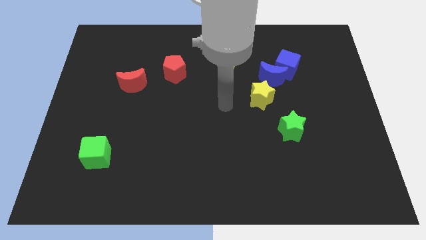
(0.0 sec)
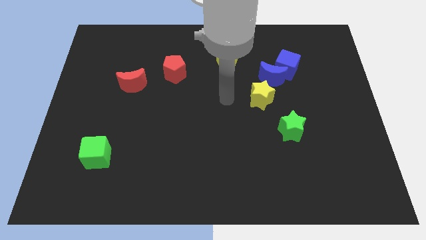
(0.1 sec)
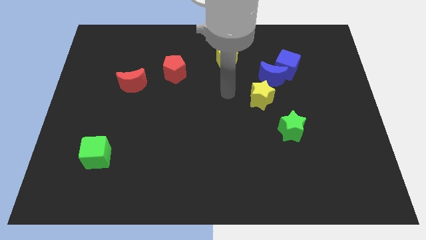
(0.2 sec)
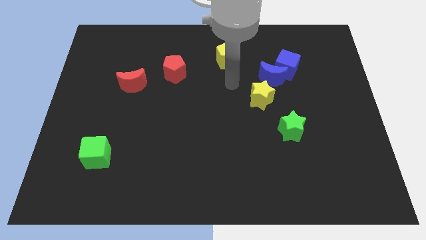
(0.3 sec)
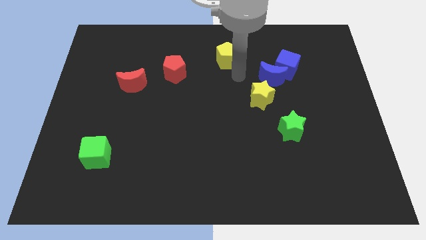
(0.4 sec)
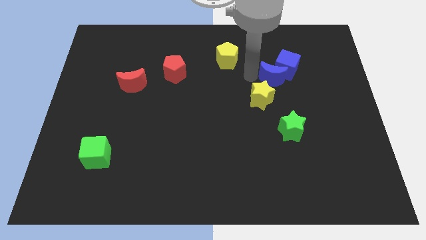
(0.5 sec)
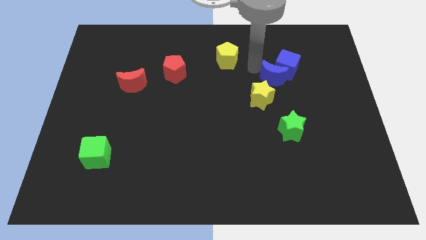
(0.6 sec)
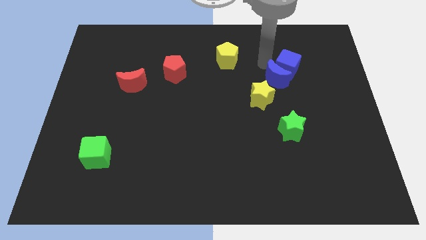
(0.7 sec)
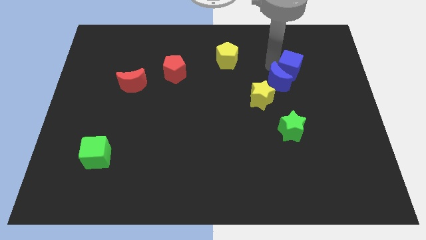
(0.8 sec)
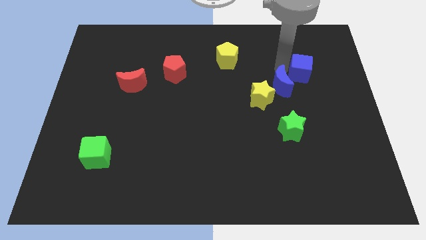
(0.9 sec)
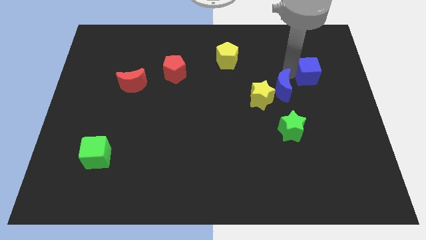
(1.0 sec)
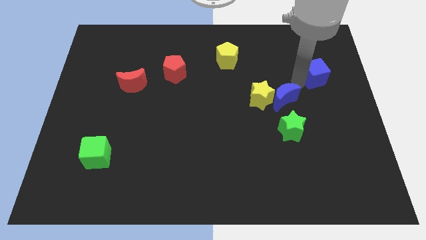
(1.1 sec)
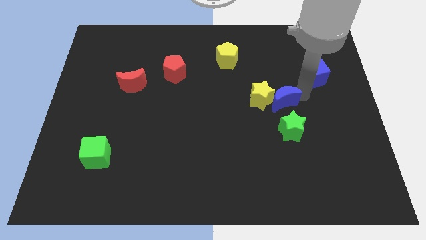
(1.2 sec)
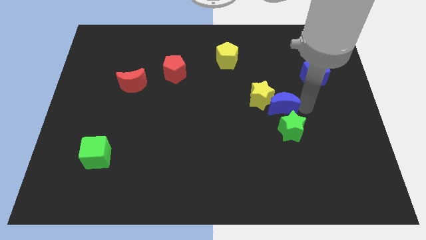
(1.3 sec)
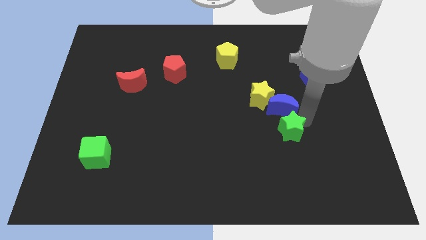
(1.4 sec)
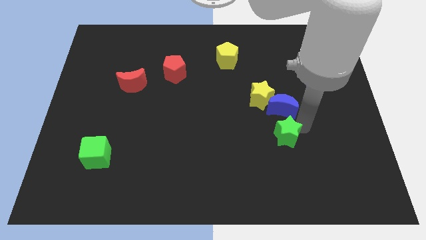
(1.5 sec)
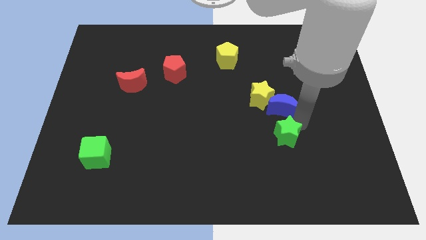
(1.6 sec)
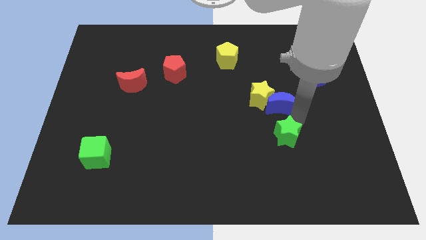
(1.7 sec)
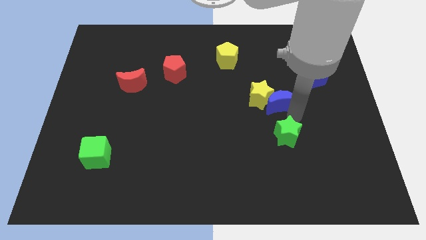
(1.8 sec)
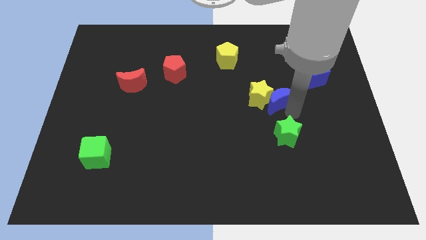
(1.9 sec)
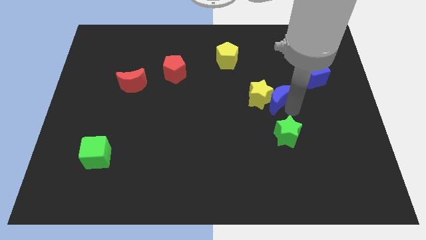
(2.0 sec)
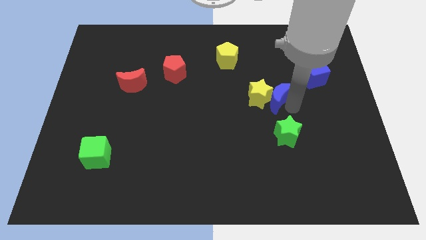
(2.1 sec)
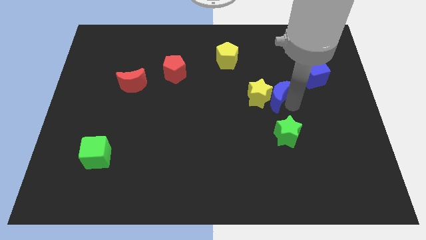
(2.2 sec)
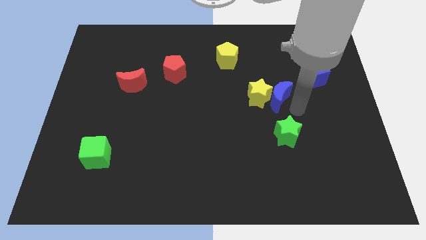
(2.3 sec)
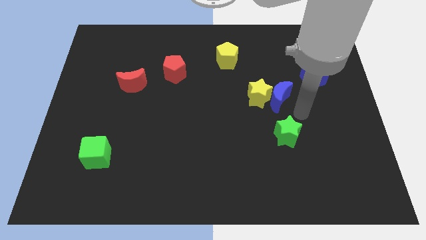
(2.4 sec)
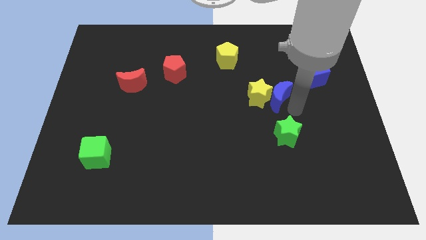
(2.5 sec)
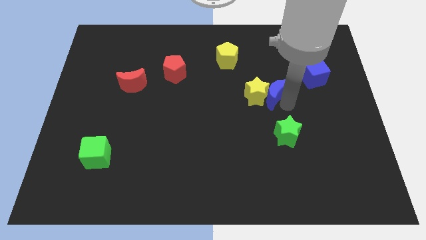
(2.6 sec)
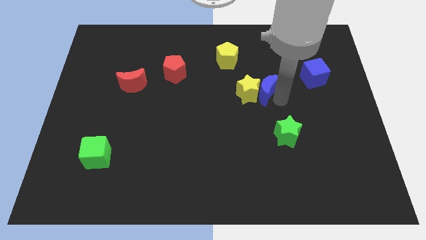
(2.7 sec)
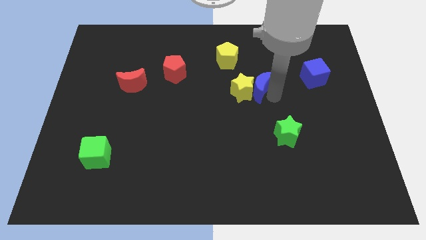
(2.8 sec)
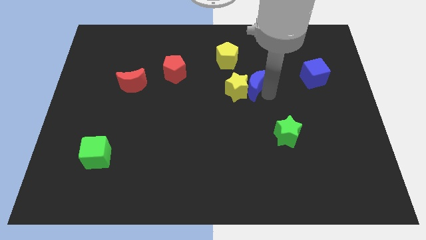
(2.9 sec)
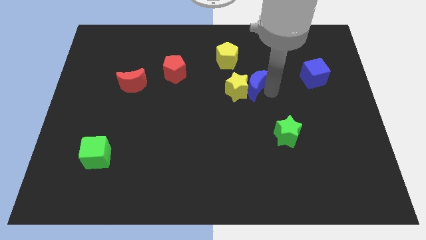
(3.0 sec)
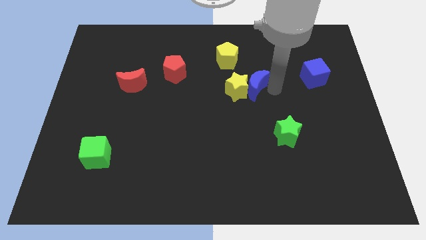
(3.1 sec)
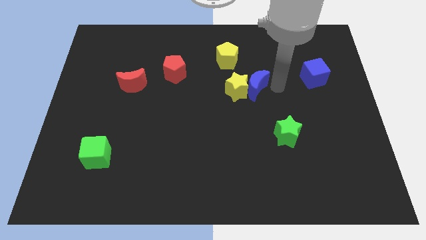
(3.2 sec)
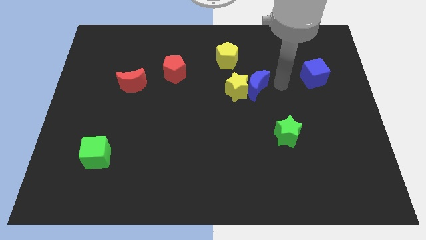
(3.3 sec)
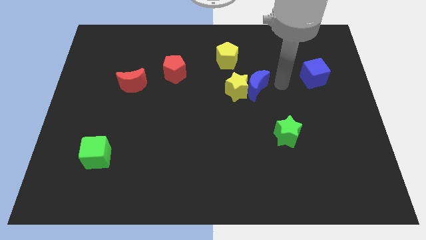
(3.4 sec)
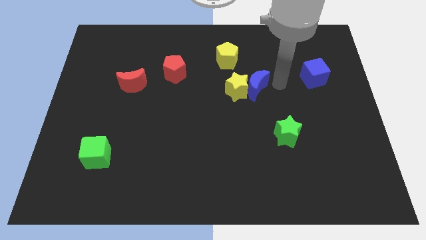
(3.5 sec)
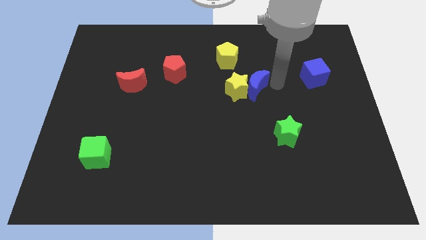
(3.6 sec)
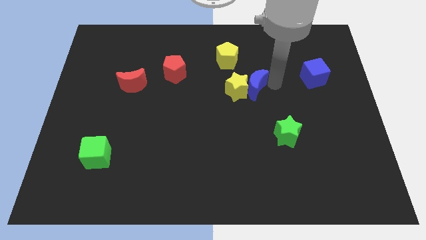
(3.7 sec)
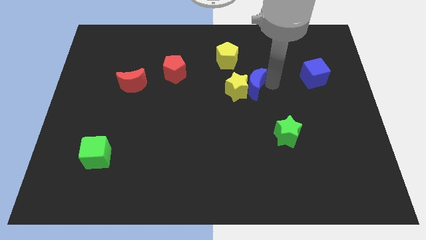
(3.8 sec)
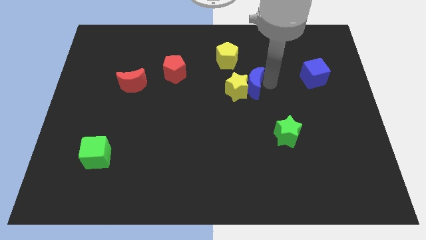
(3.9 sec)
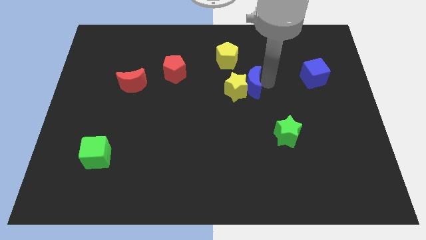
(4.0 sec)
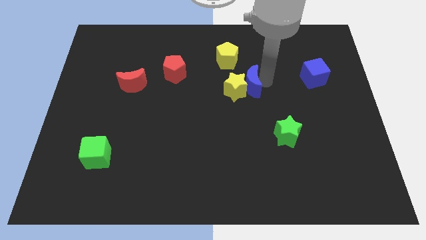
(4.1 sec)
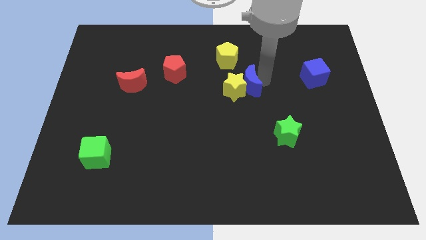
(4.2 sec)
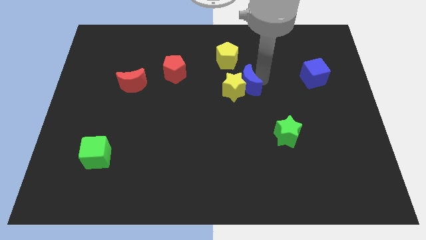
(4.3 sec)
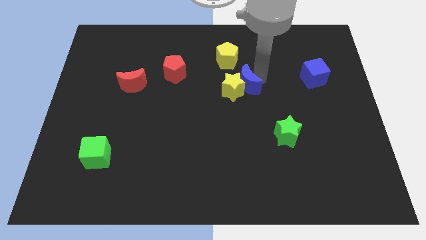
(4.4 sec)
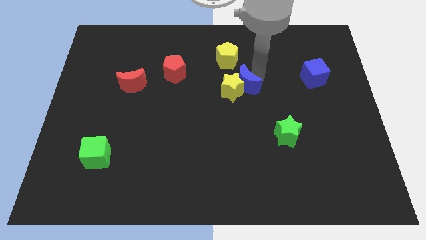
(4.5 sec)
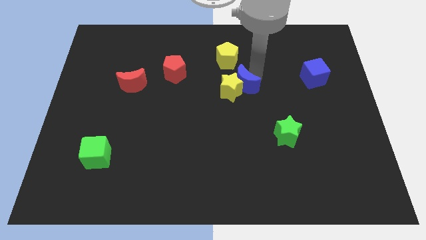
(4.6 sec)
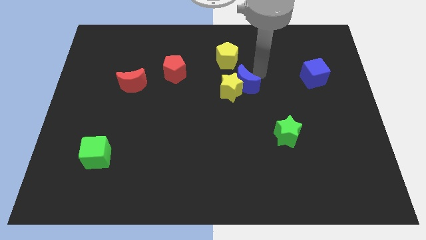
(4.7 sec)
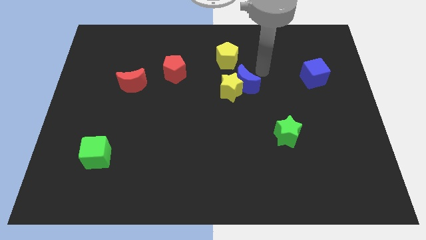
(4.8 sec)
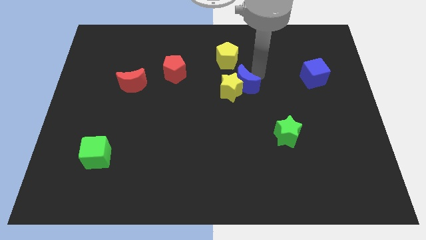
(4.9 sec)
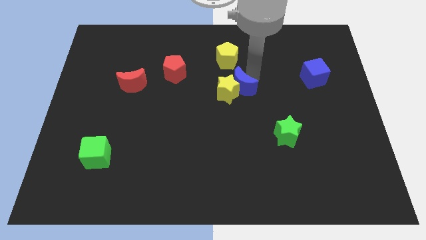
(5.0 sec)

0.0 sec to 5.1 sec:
slightly push the blue moon downwards and left

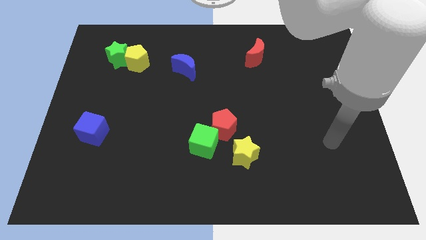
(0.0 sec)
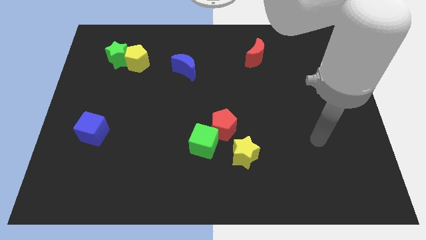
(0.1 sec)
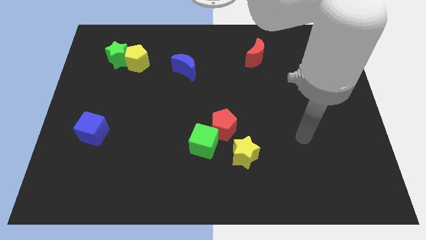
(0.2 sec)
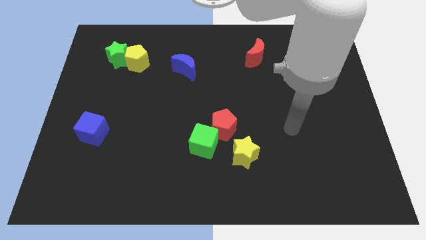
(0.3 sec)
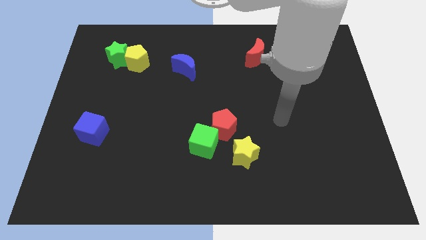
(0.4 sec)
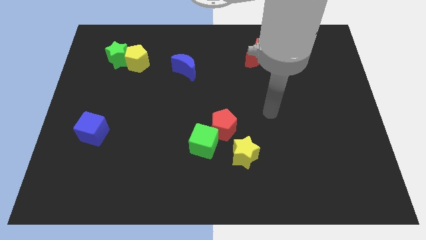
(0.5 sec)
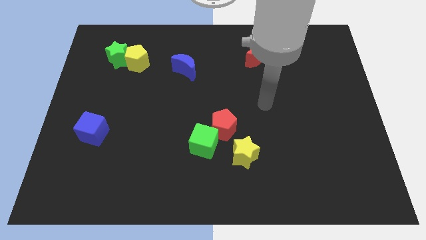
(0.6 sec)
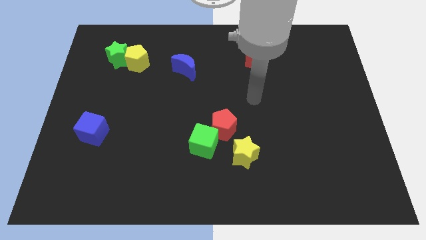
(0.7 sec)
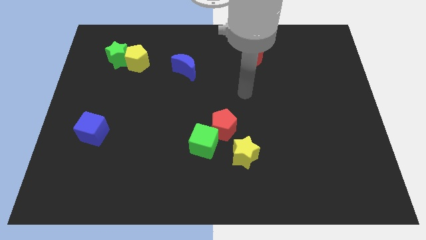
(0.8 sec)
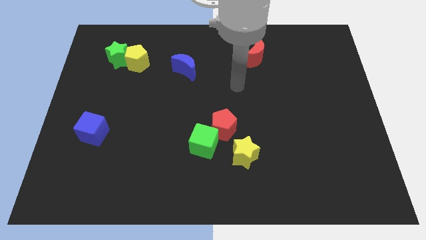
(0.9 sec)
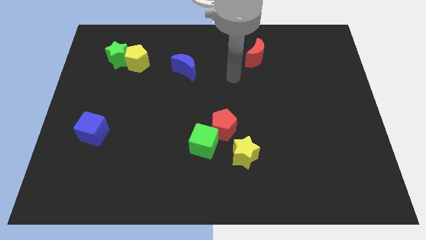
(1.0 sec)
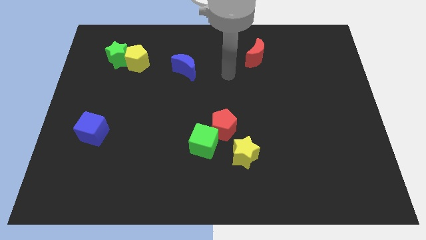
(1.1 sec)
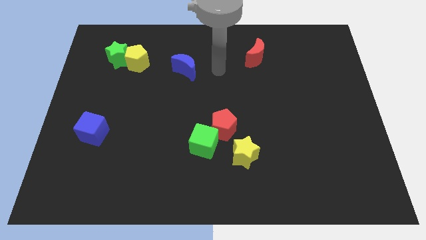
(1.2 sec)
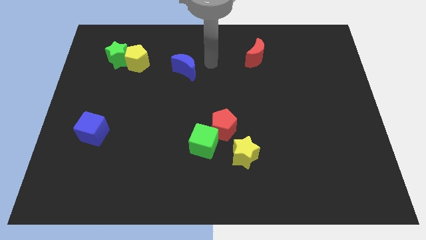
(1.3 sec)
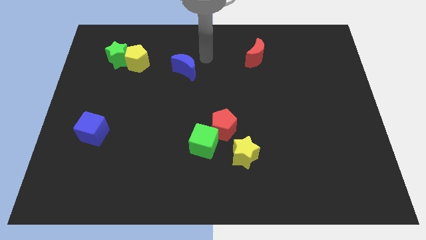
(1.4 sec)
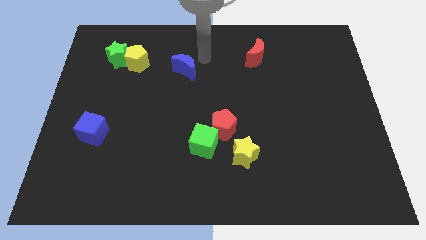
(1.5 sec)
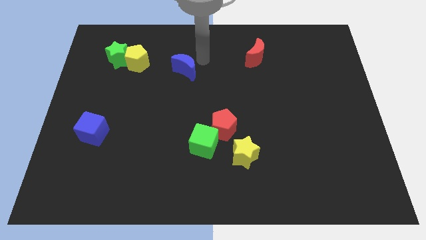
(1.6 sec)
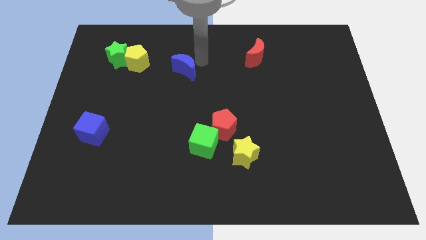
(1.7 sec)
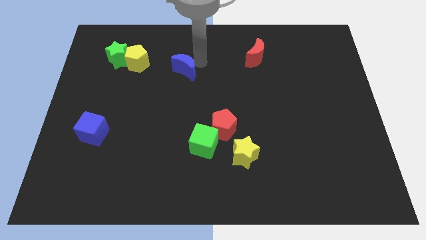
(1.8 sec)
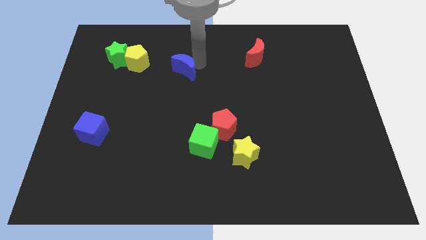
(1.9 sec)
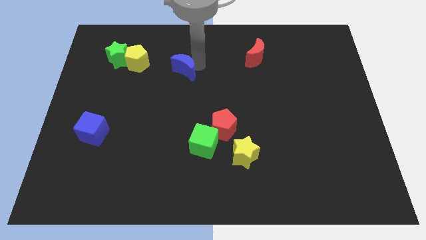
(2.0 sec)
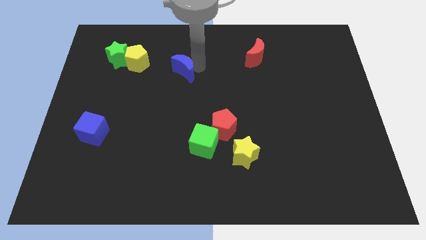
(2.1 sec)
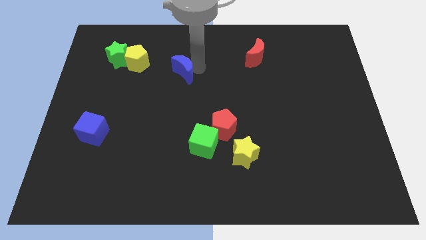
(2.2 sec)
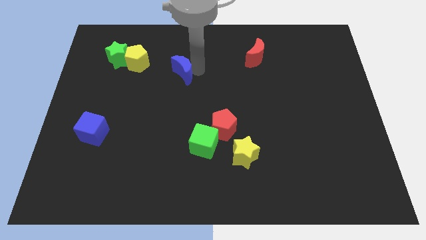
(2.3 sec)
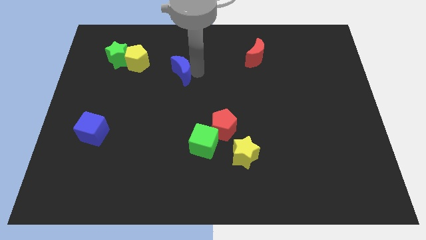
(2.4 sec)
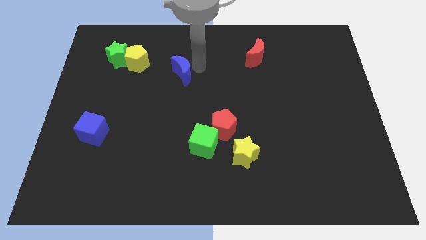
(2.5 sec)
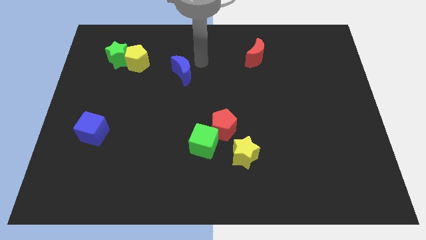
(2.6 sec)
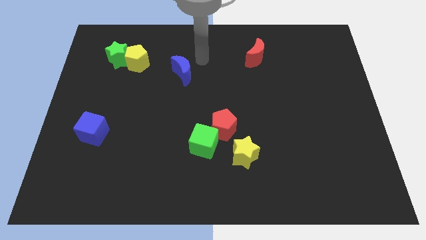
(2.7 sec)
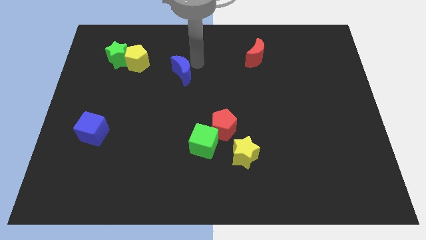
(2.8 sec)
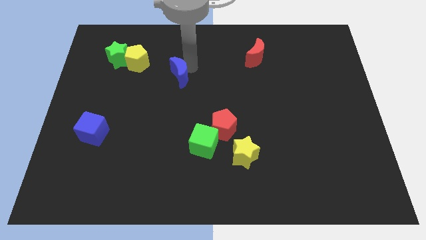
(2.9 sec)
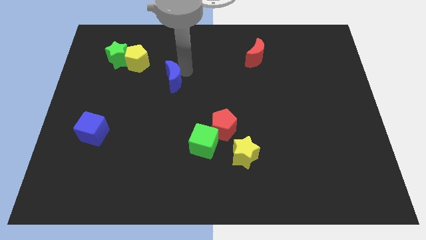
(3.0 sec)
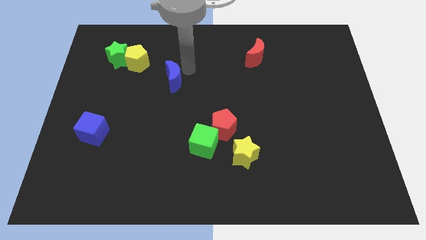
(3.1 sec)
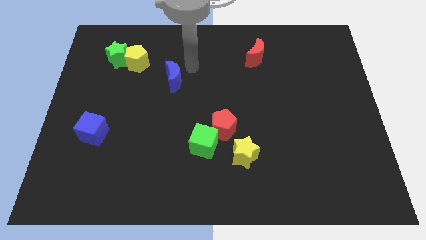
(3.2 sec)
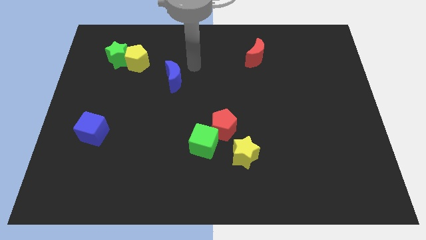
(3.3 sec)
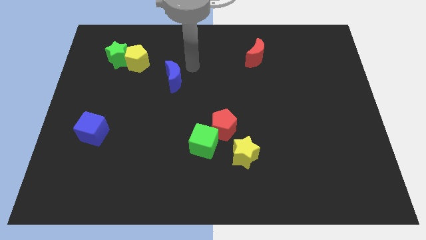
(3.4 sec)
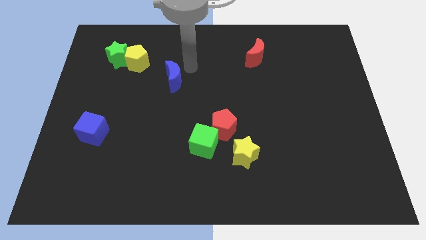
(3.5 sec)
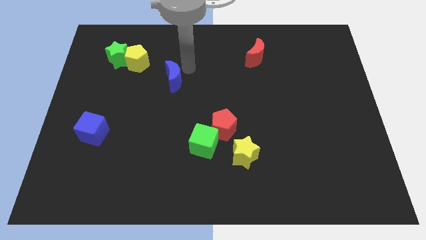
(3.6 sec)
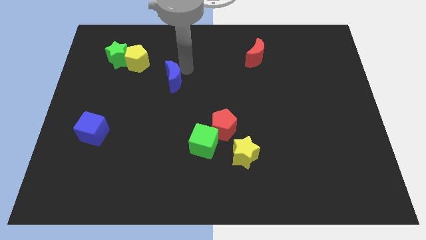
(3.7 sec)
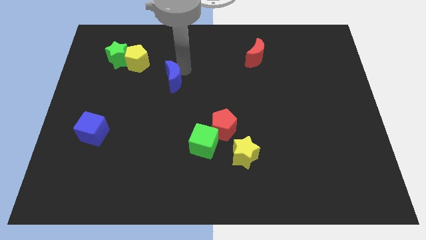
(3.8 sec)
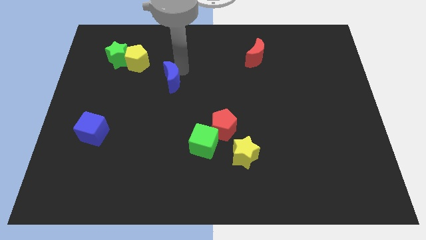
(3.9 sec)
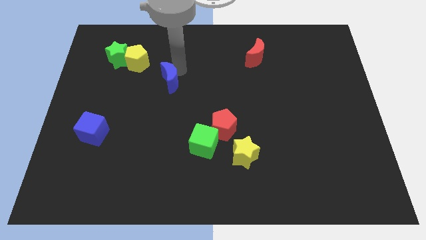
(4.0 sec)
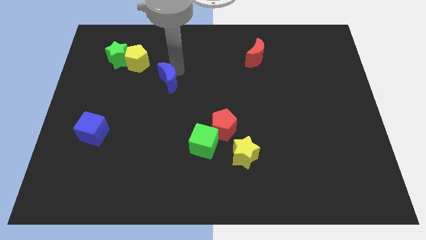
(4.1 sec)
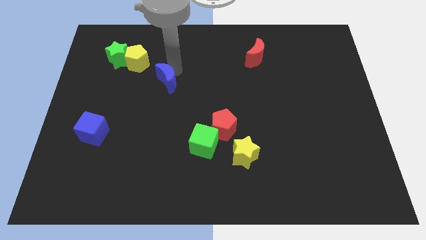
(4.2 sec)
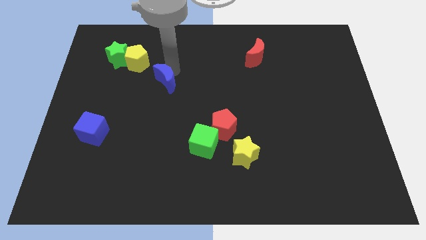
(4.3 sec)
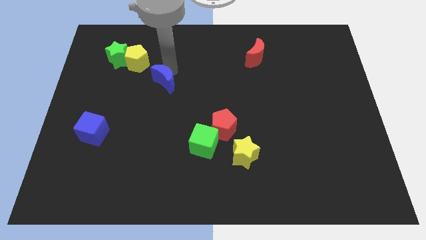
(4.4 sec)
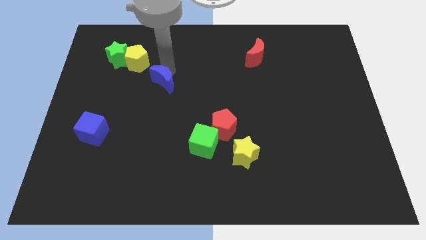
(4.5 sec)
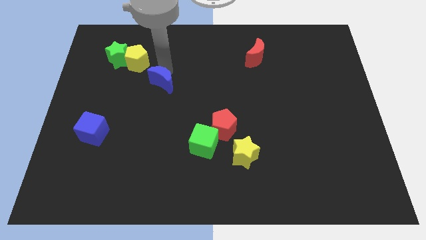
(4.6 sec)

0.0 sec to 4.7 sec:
slightly slide the blue moon diagonally downwards and to the left
